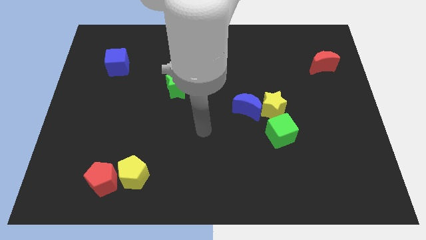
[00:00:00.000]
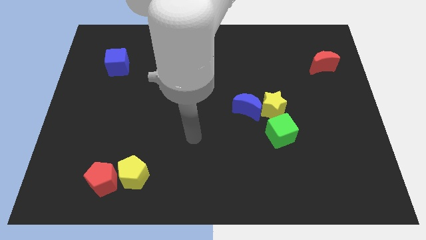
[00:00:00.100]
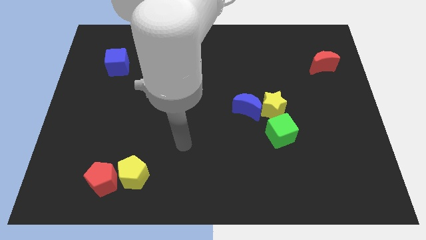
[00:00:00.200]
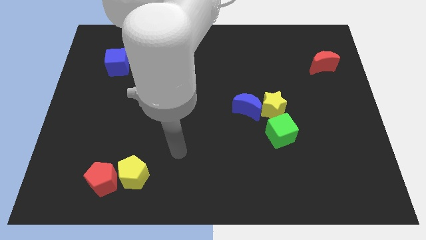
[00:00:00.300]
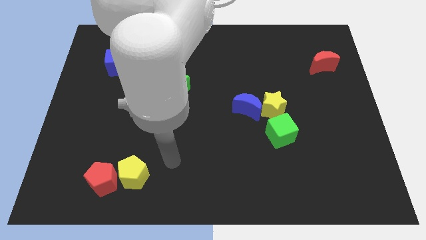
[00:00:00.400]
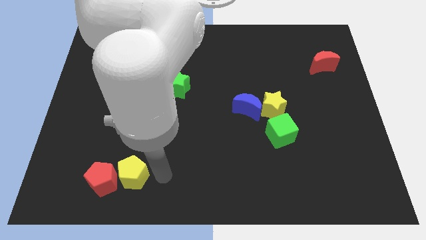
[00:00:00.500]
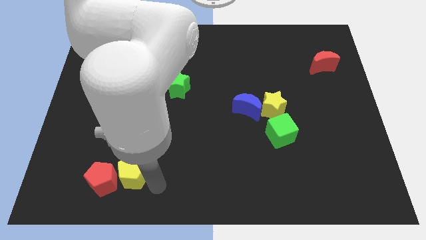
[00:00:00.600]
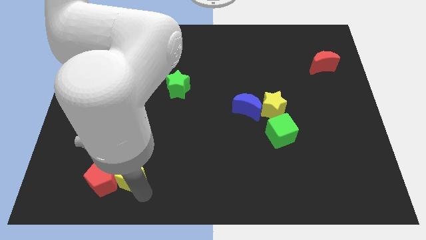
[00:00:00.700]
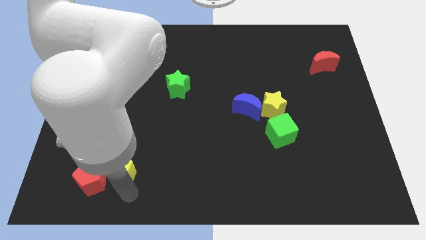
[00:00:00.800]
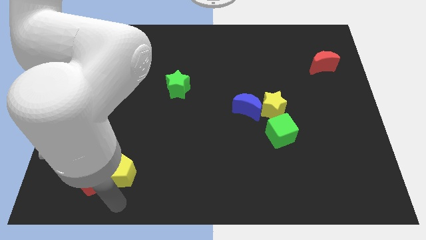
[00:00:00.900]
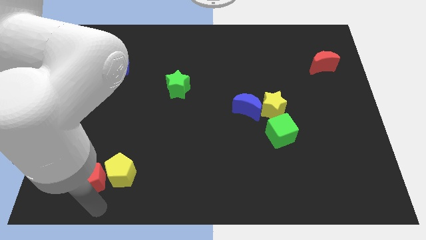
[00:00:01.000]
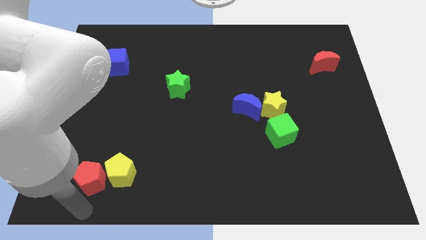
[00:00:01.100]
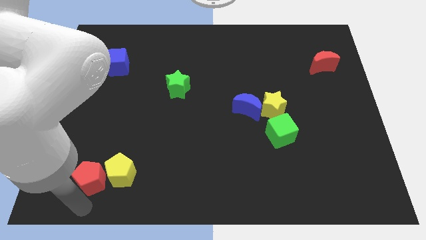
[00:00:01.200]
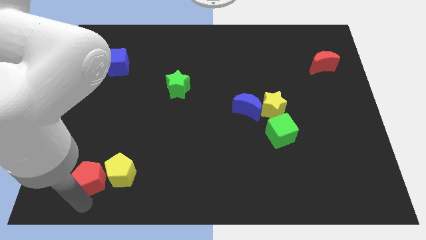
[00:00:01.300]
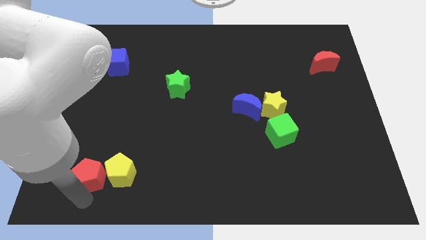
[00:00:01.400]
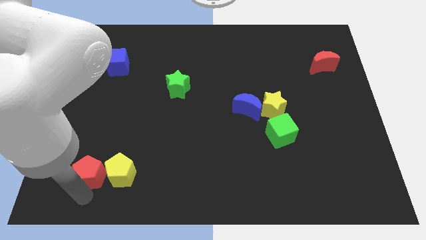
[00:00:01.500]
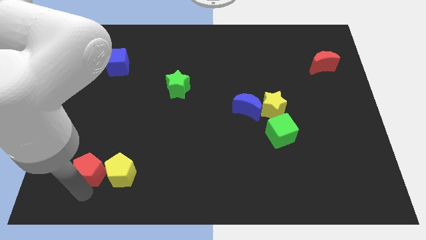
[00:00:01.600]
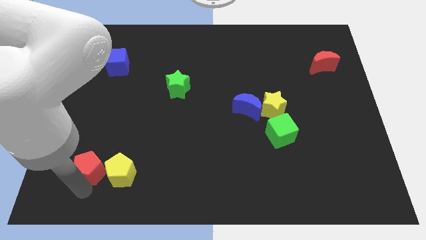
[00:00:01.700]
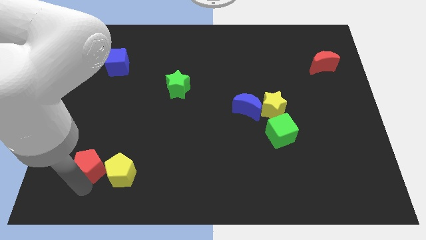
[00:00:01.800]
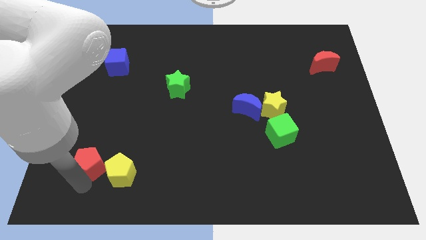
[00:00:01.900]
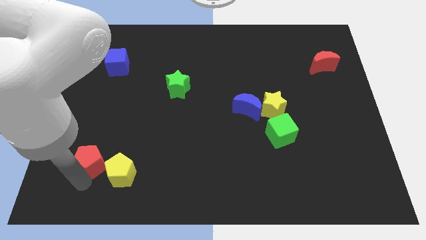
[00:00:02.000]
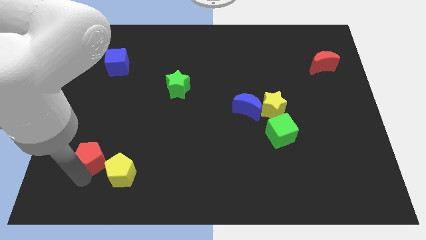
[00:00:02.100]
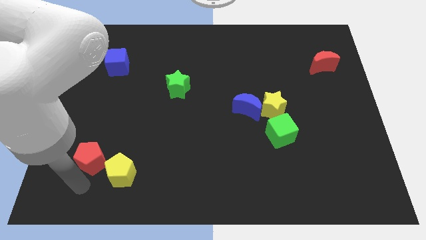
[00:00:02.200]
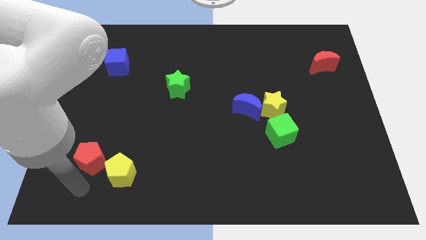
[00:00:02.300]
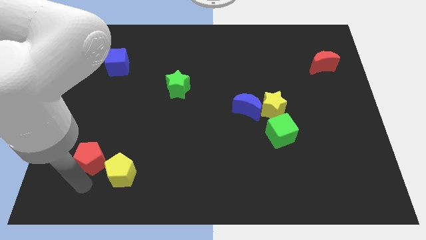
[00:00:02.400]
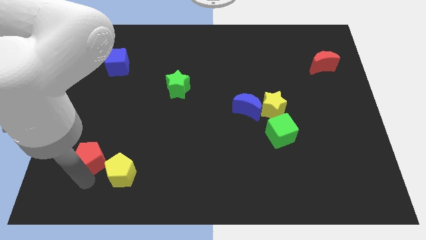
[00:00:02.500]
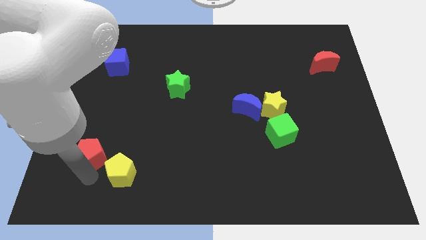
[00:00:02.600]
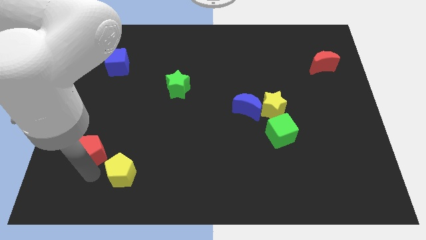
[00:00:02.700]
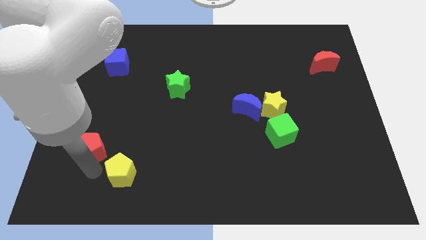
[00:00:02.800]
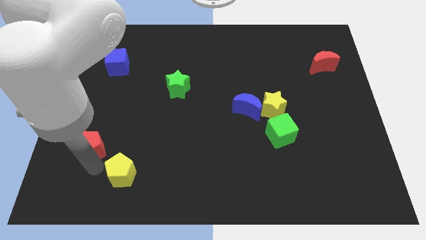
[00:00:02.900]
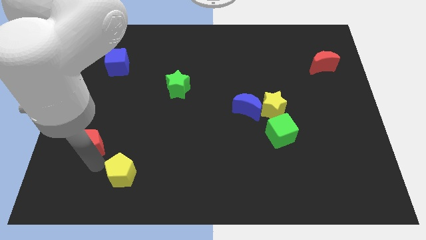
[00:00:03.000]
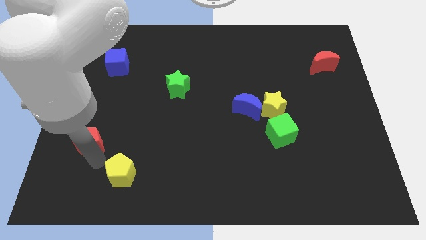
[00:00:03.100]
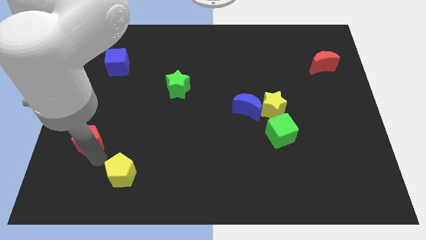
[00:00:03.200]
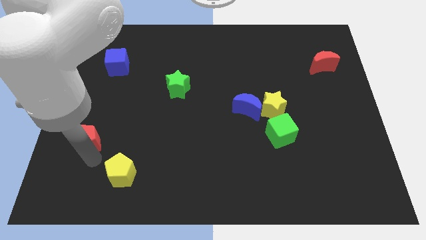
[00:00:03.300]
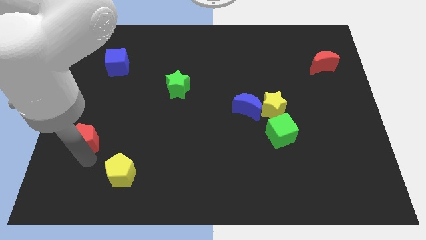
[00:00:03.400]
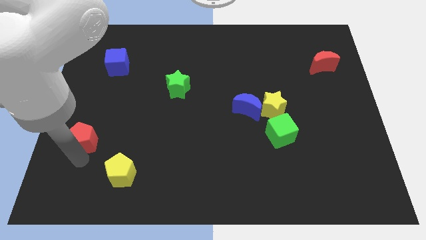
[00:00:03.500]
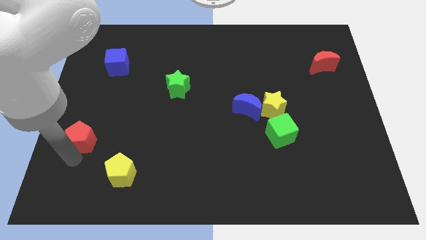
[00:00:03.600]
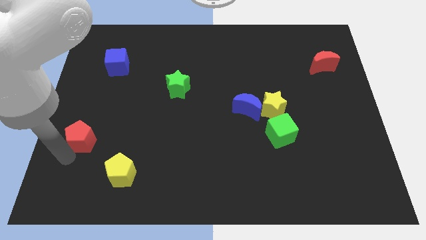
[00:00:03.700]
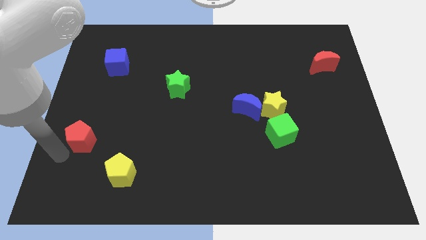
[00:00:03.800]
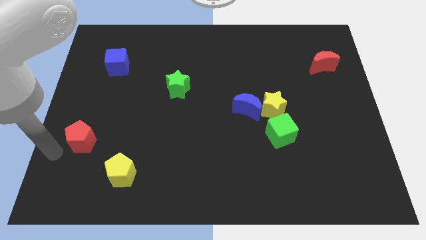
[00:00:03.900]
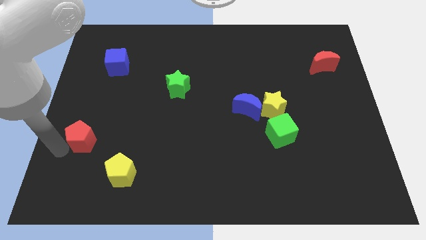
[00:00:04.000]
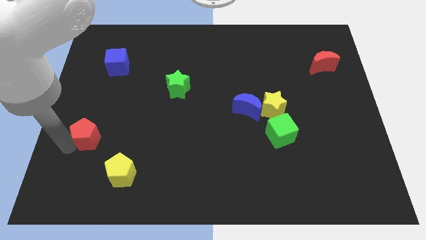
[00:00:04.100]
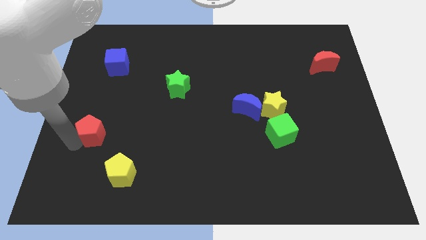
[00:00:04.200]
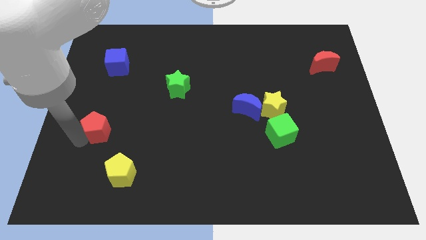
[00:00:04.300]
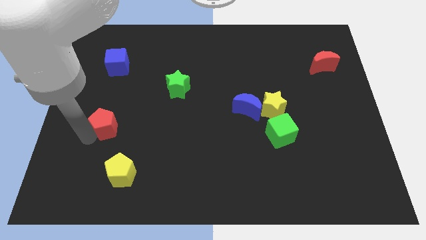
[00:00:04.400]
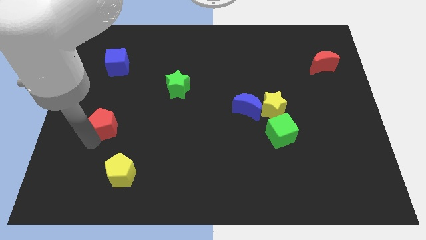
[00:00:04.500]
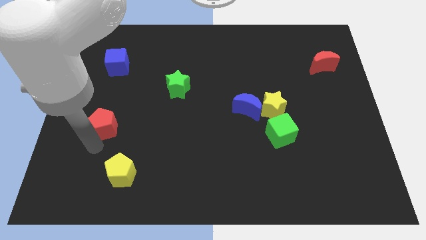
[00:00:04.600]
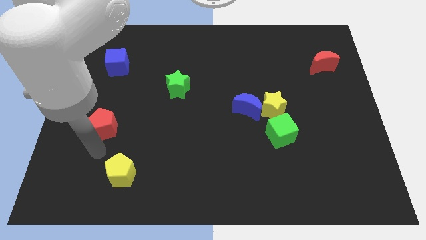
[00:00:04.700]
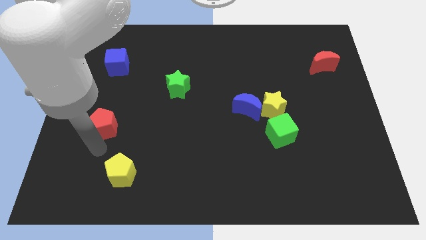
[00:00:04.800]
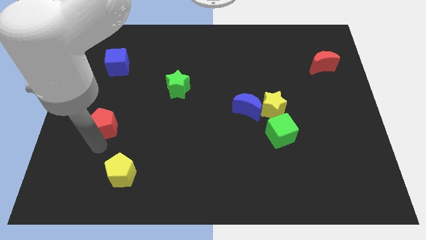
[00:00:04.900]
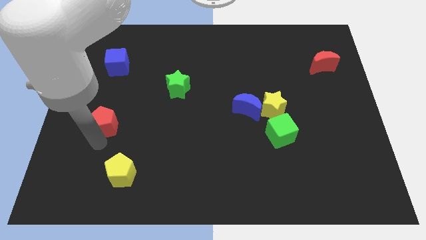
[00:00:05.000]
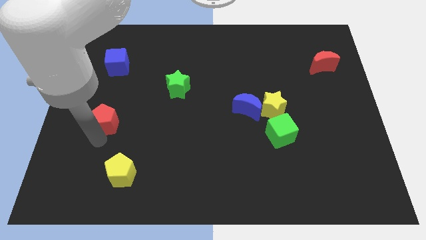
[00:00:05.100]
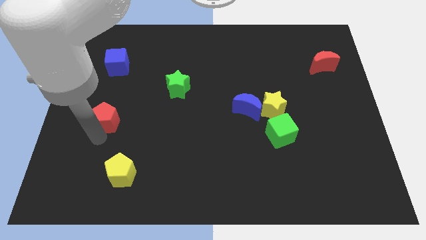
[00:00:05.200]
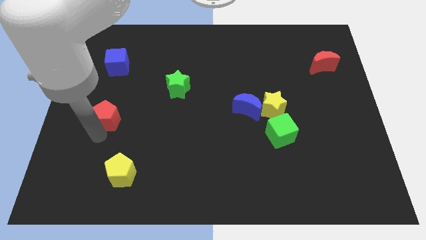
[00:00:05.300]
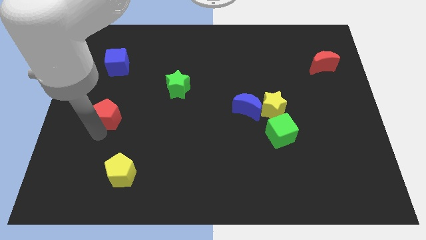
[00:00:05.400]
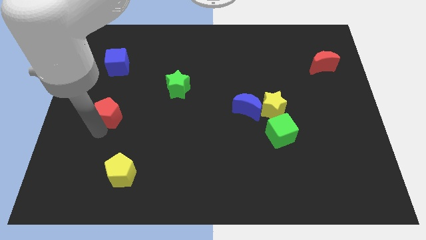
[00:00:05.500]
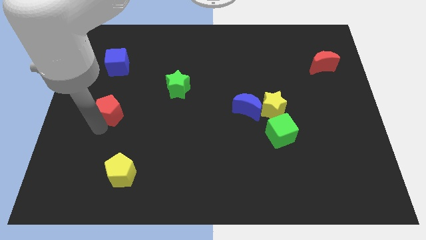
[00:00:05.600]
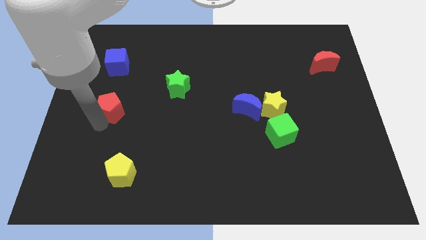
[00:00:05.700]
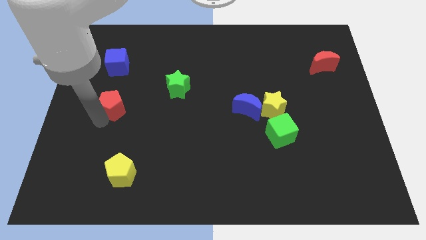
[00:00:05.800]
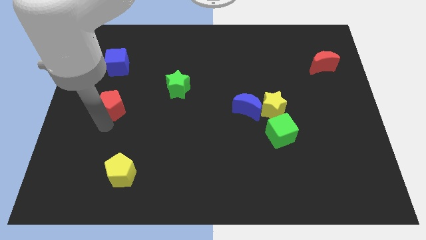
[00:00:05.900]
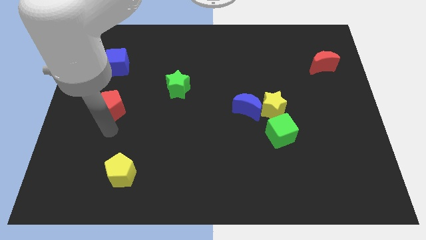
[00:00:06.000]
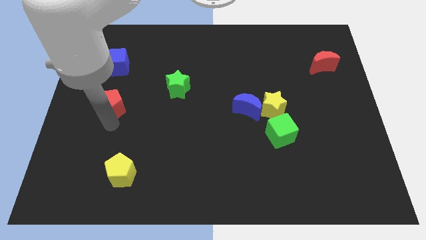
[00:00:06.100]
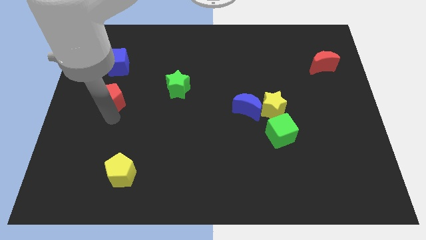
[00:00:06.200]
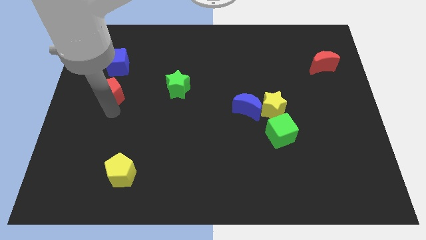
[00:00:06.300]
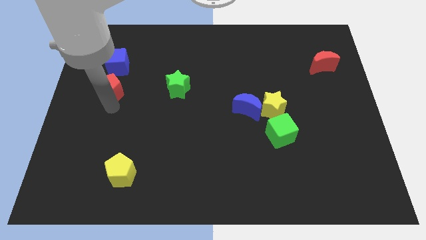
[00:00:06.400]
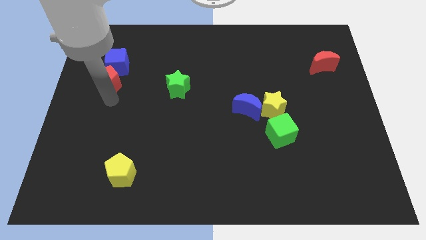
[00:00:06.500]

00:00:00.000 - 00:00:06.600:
push the red pentagon towards the blue cube

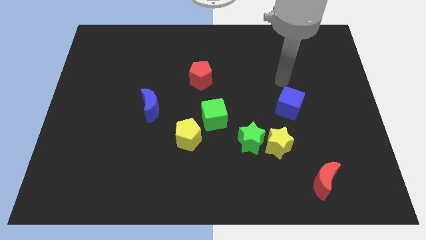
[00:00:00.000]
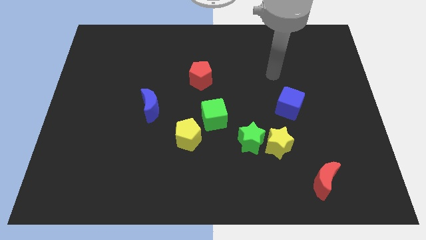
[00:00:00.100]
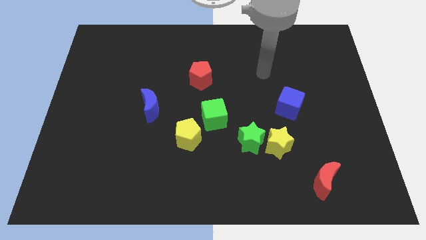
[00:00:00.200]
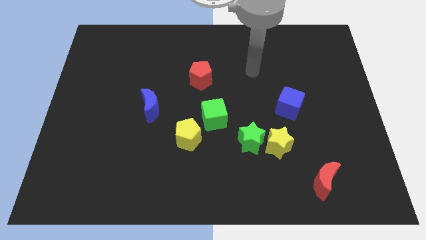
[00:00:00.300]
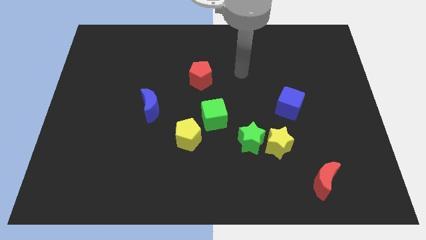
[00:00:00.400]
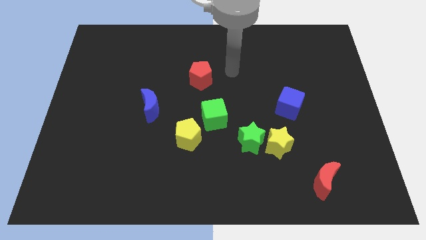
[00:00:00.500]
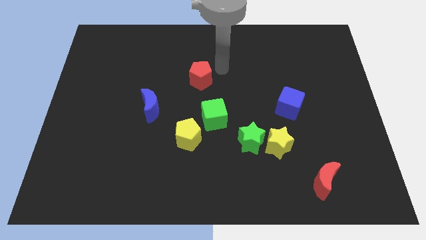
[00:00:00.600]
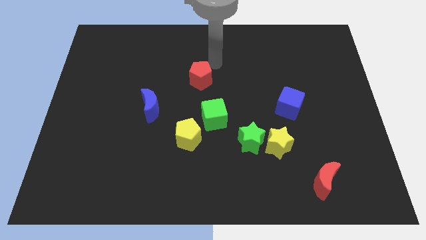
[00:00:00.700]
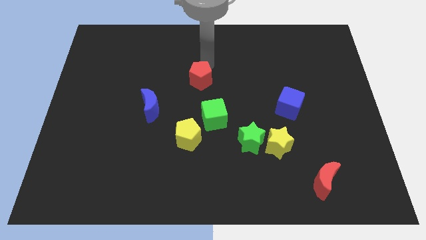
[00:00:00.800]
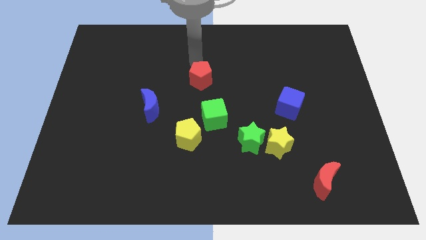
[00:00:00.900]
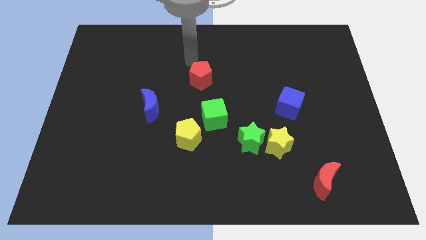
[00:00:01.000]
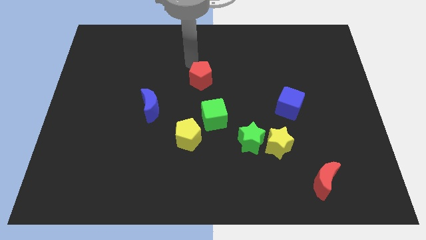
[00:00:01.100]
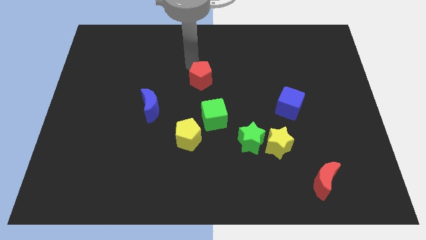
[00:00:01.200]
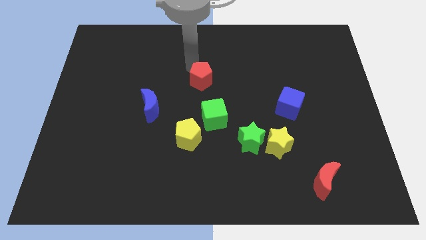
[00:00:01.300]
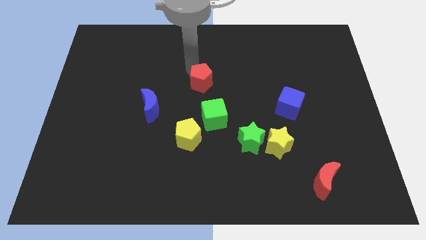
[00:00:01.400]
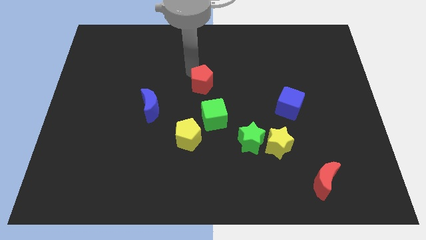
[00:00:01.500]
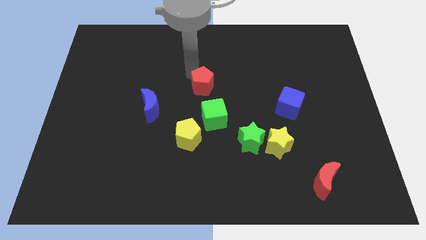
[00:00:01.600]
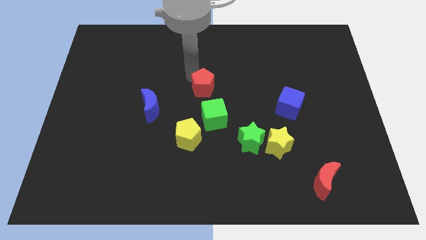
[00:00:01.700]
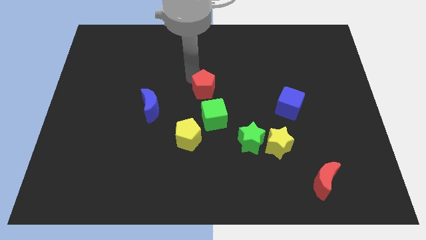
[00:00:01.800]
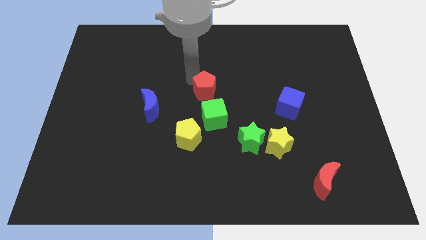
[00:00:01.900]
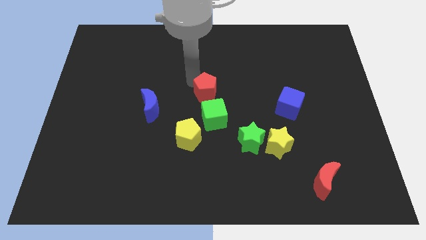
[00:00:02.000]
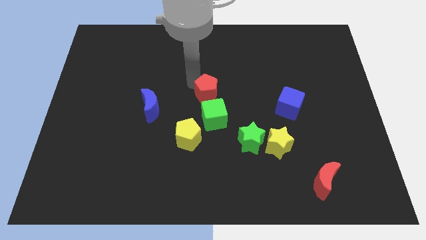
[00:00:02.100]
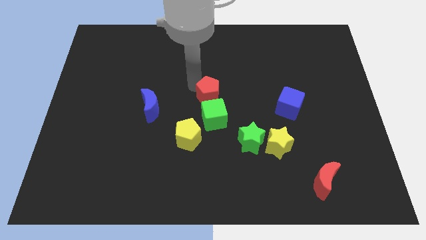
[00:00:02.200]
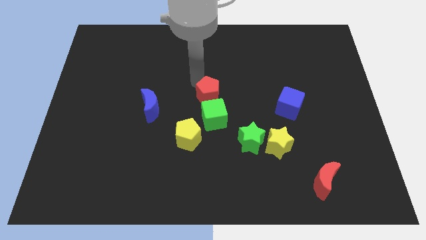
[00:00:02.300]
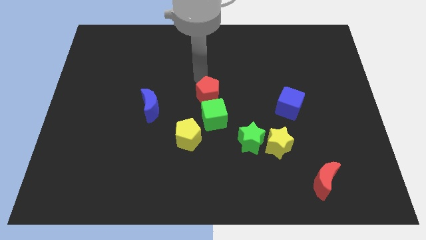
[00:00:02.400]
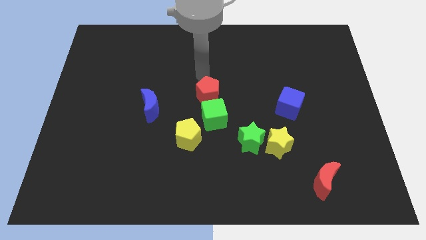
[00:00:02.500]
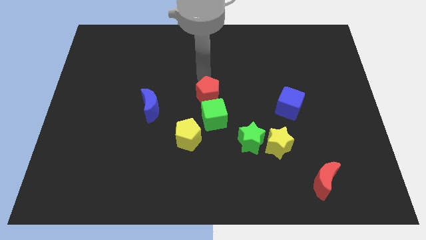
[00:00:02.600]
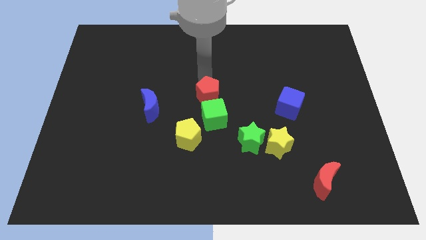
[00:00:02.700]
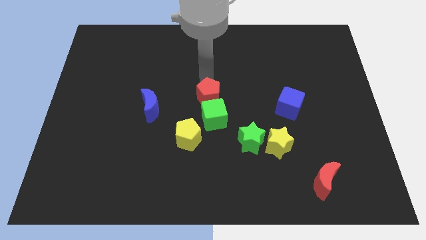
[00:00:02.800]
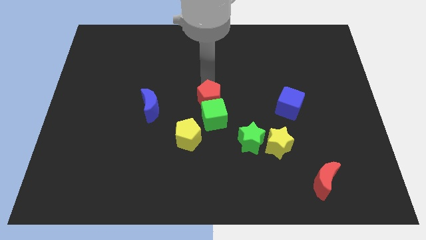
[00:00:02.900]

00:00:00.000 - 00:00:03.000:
push the red pentagon towards the green cube
